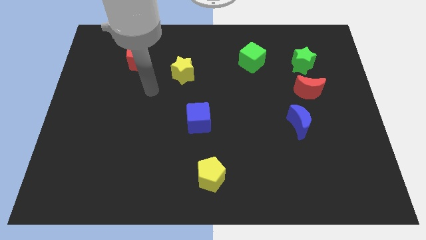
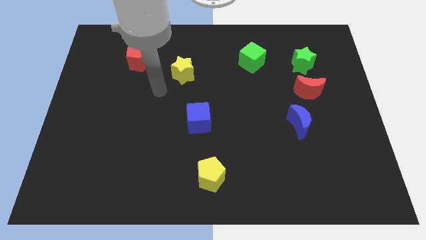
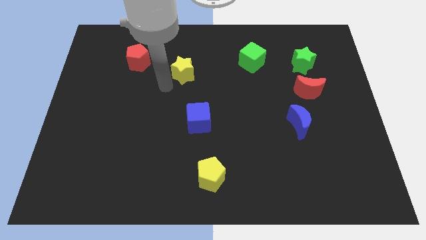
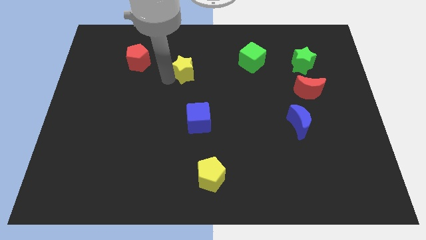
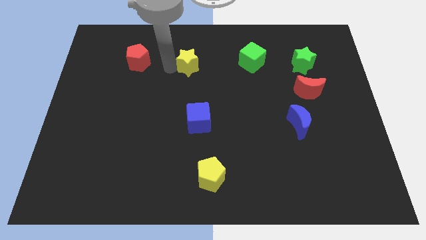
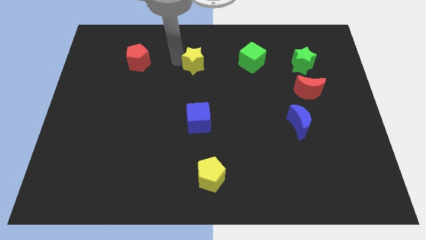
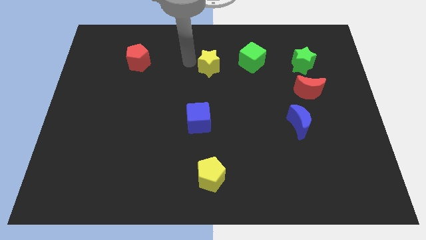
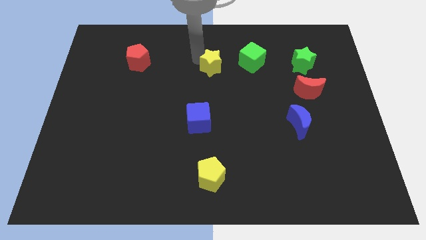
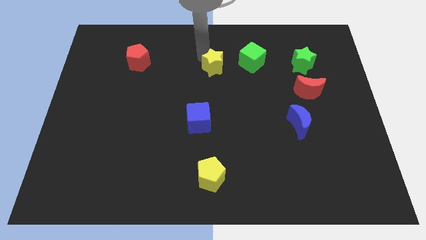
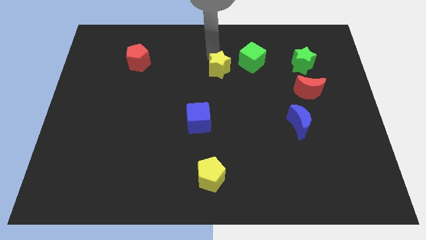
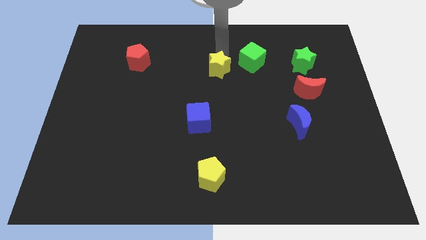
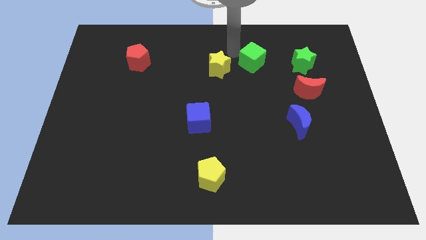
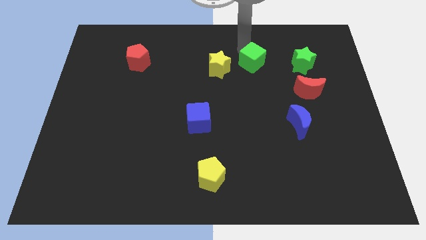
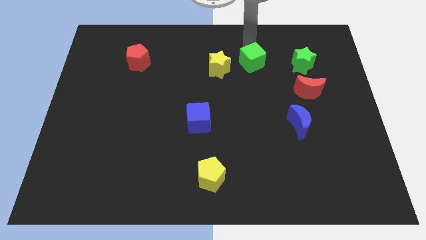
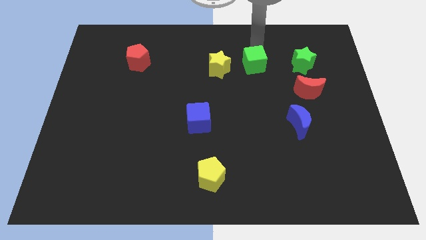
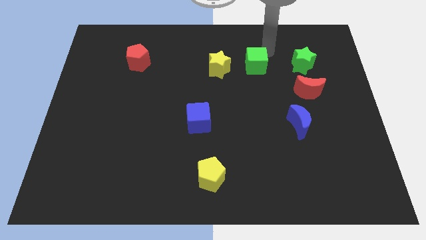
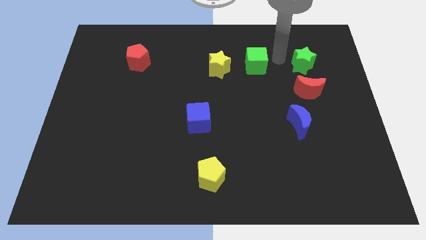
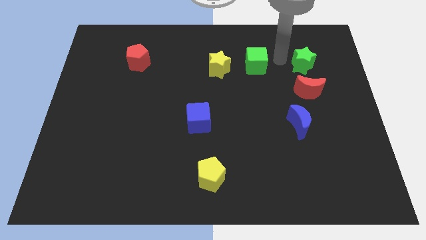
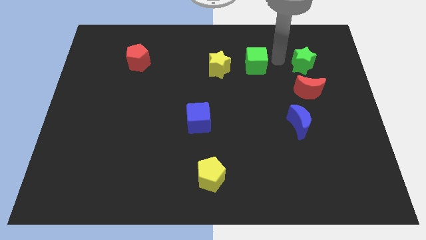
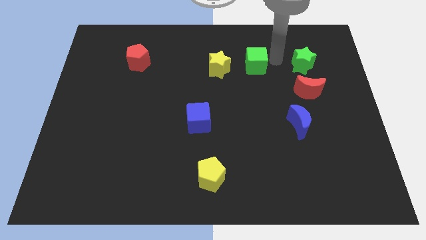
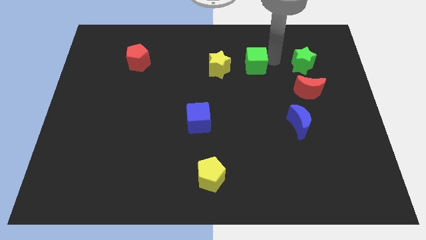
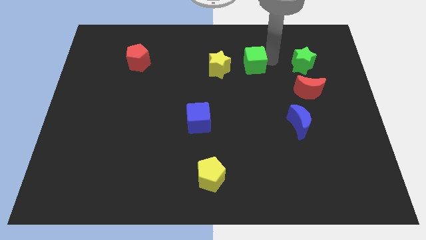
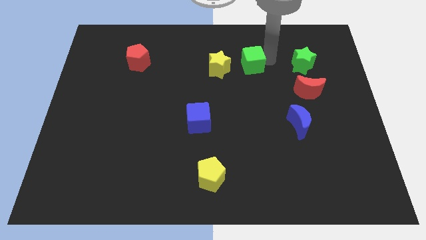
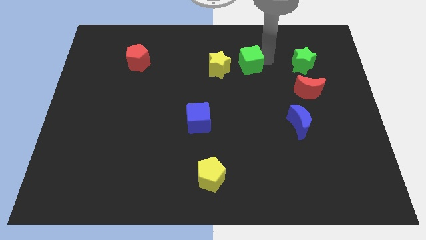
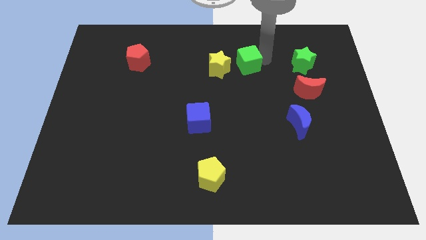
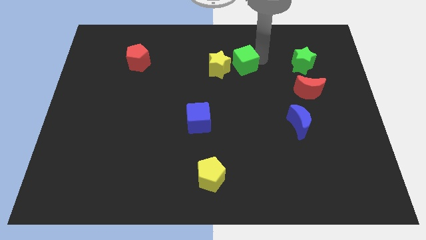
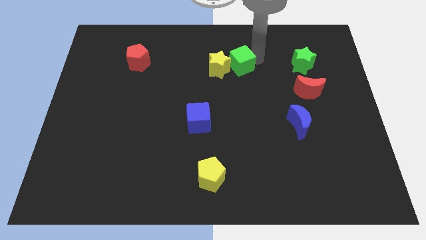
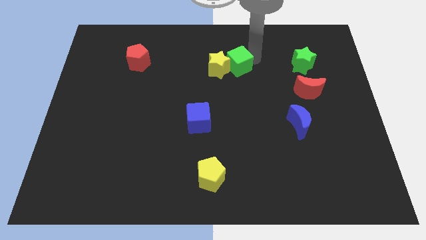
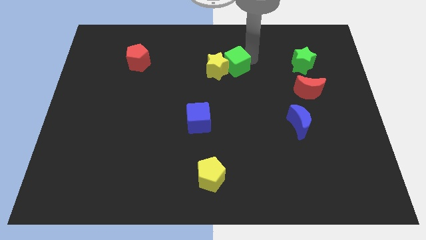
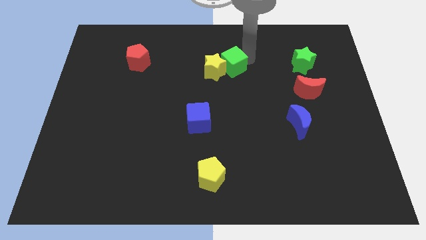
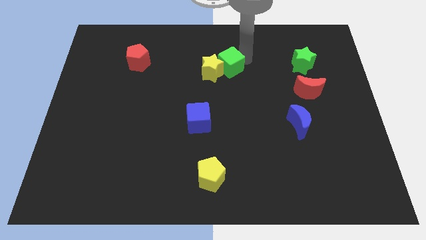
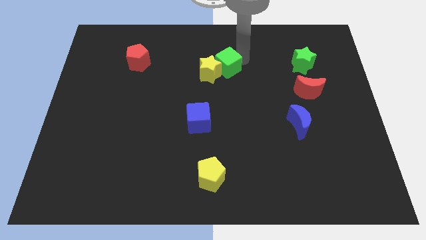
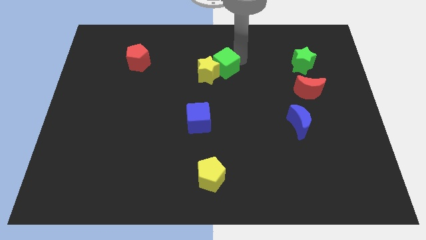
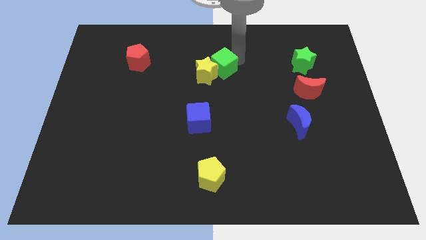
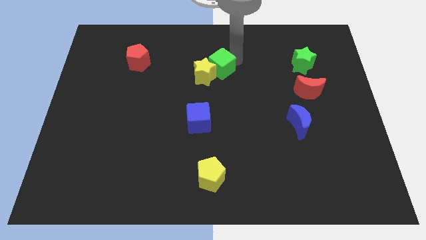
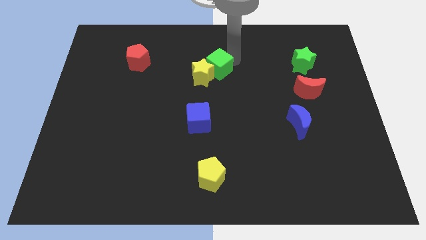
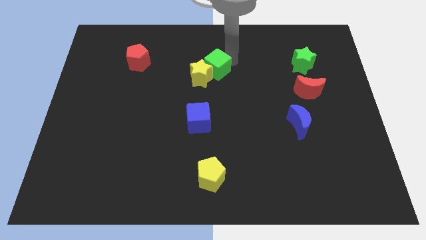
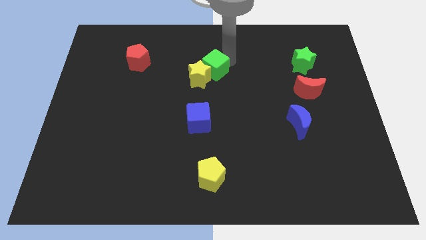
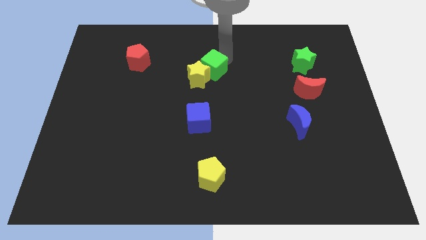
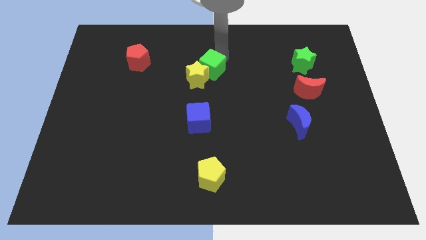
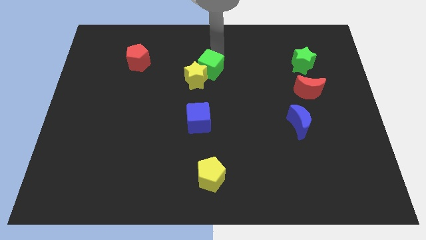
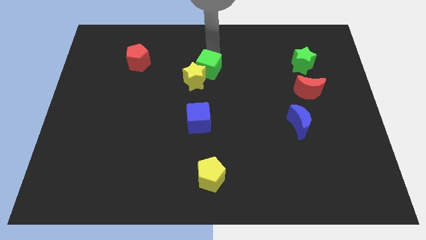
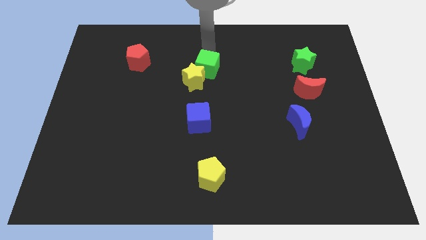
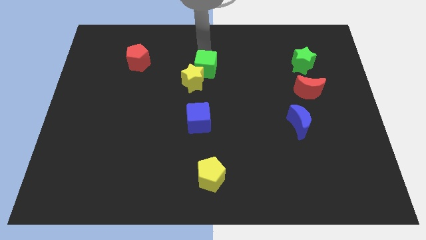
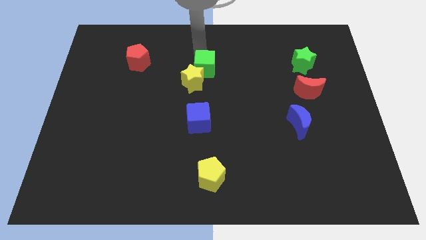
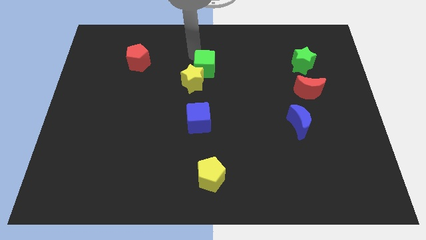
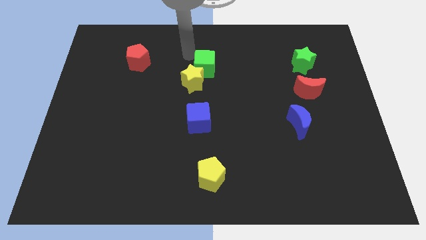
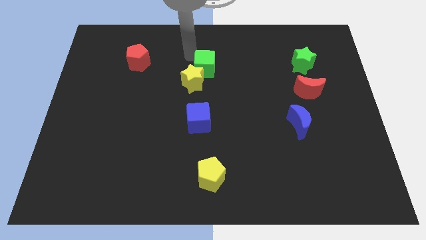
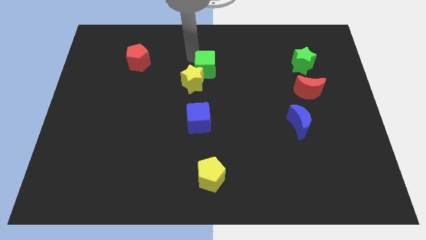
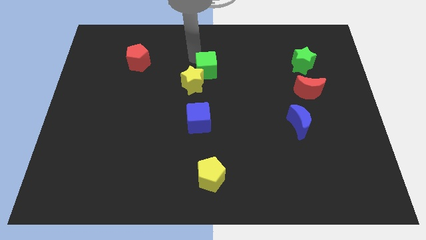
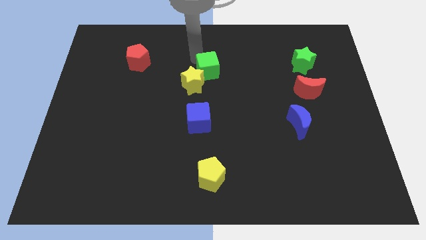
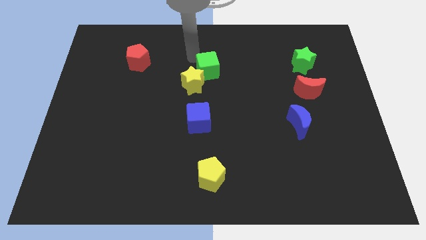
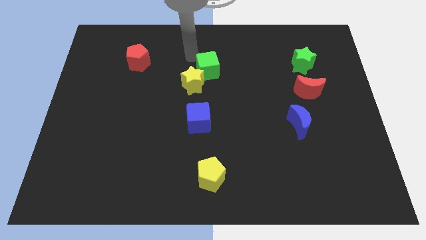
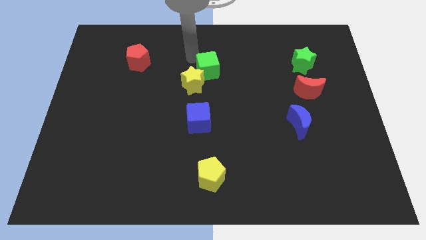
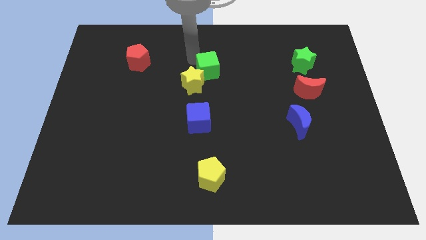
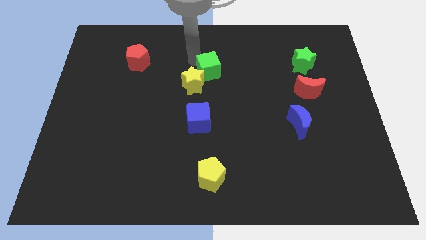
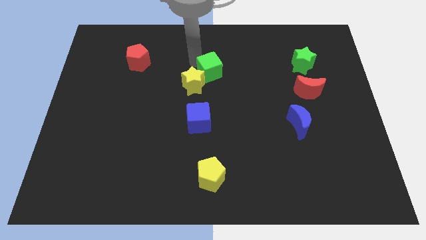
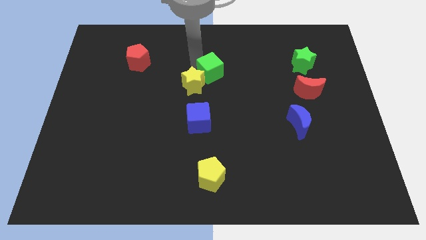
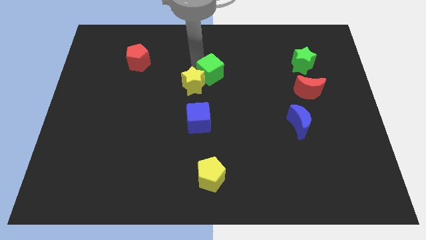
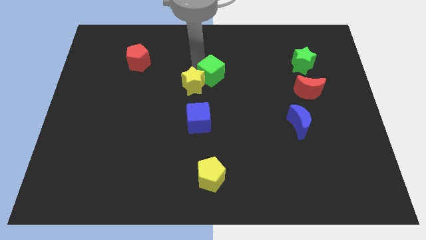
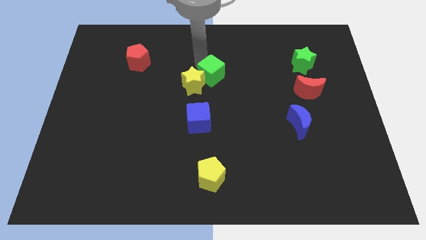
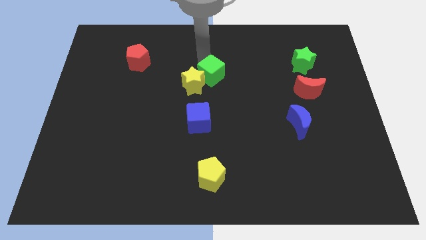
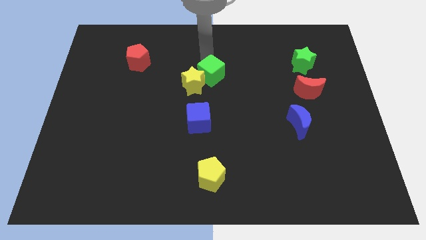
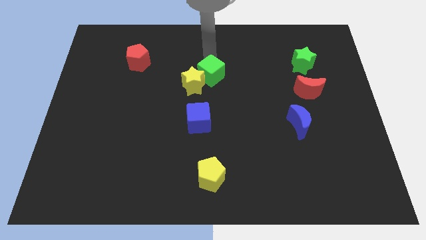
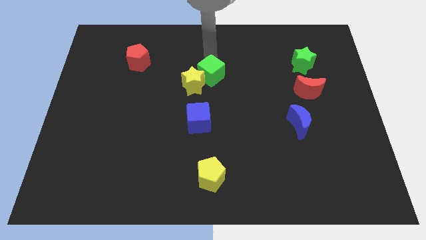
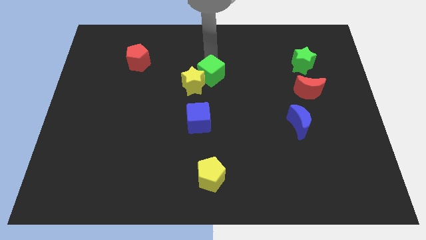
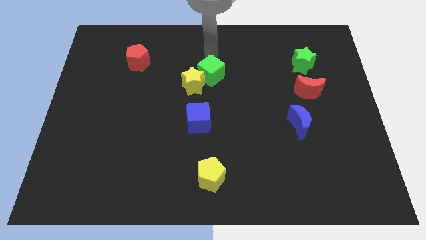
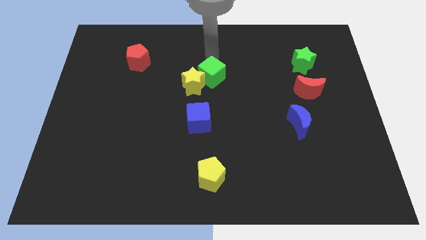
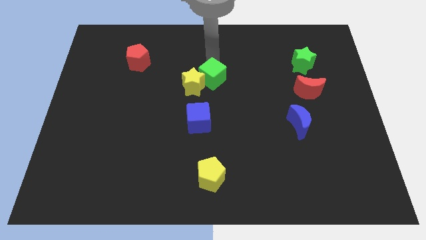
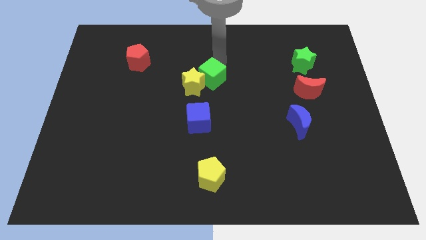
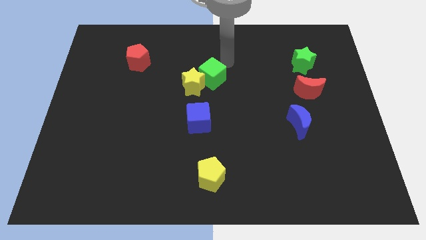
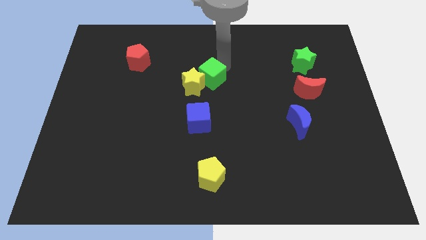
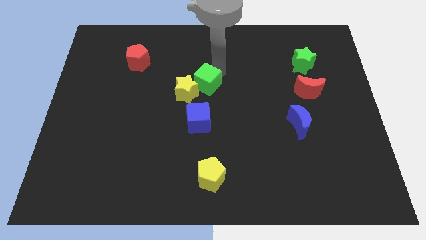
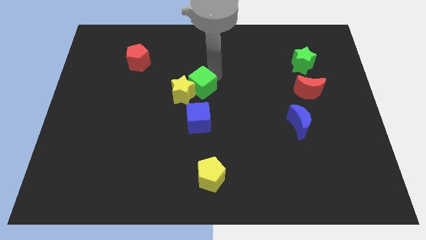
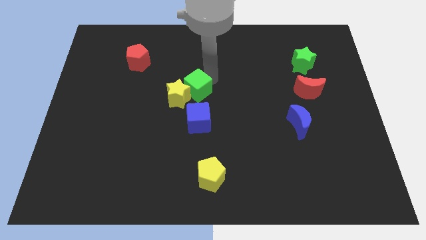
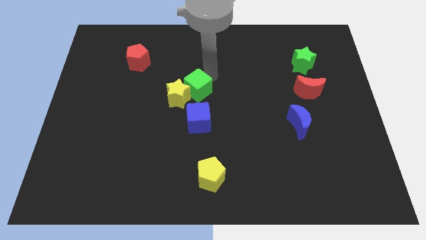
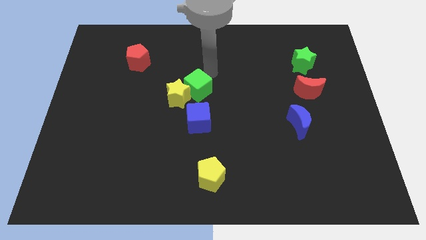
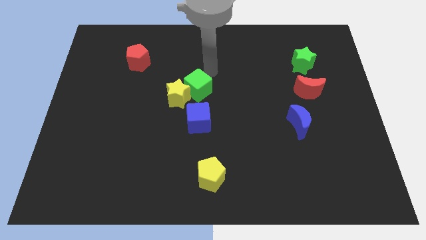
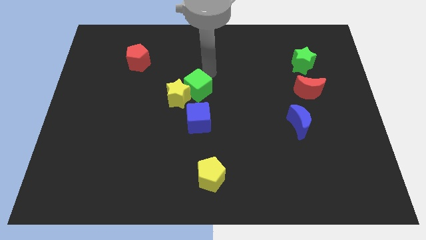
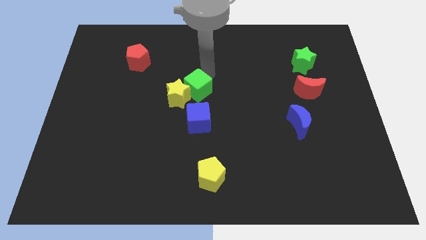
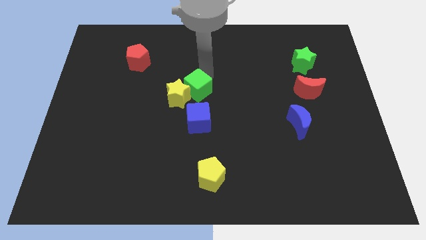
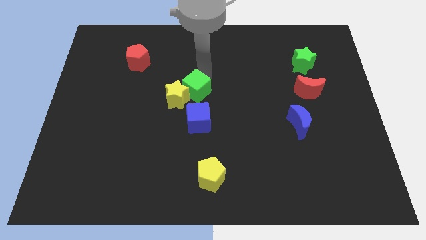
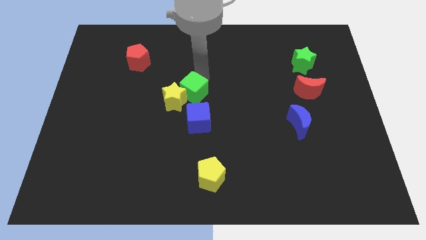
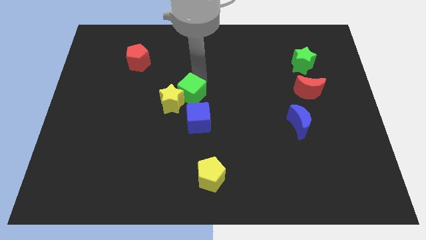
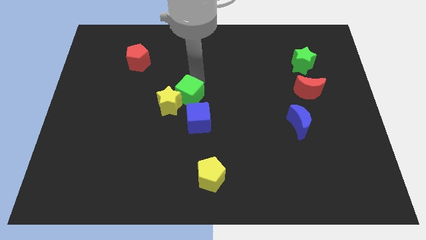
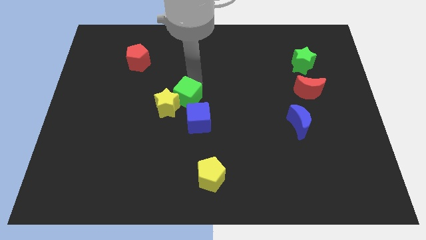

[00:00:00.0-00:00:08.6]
move the green cube diagonally down and left
